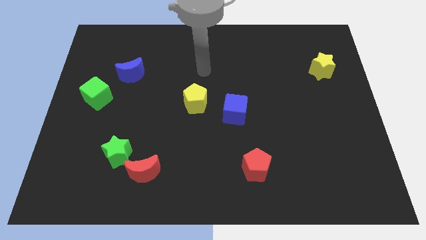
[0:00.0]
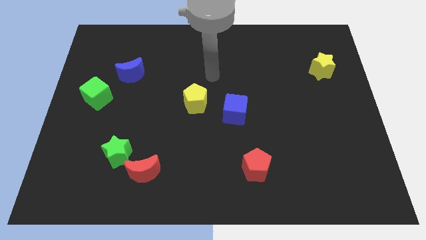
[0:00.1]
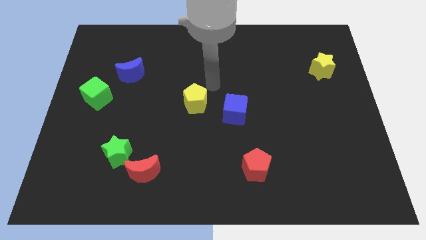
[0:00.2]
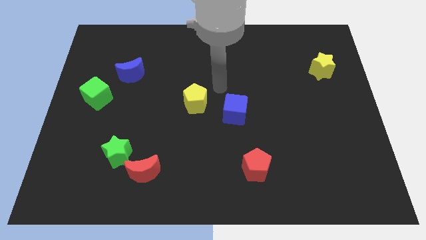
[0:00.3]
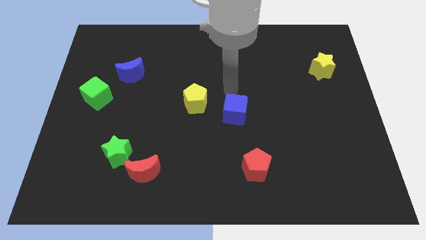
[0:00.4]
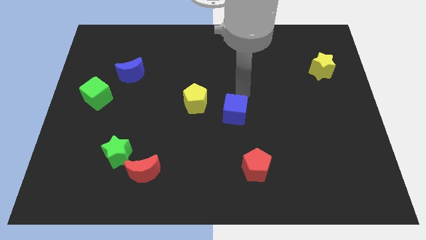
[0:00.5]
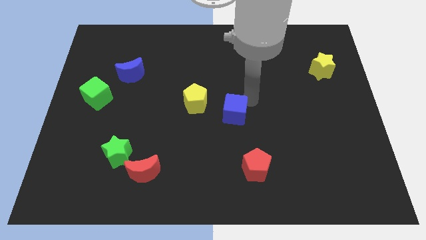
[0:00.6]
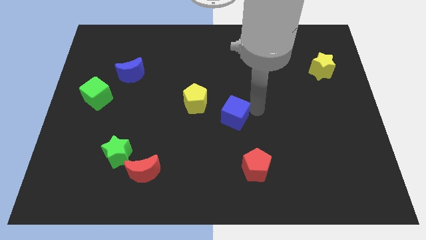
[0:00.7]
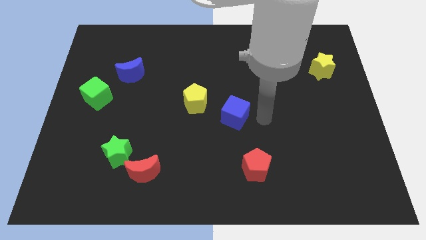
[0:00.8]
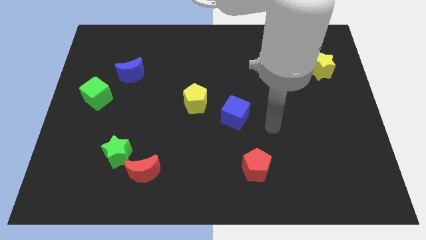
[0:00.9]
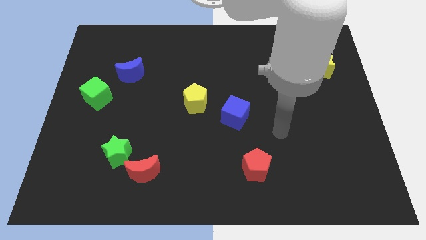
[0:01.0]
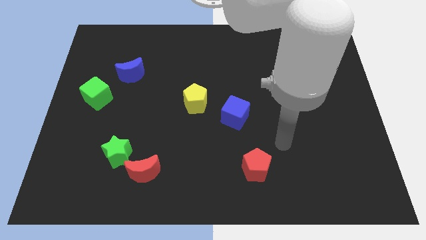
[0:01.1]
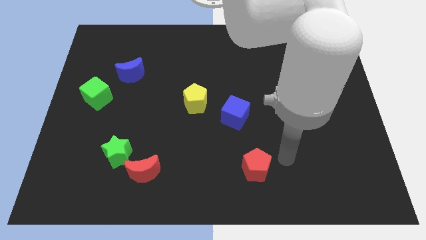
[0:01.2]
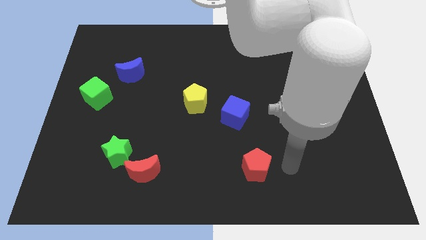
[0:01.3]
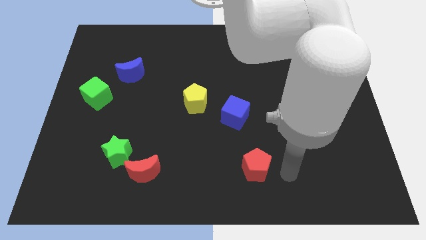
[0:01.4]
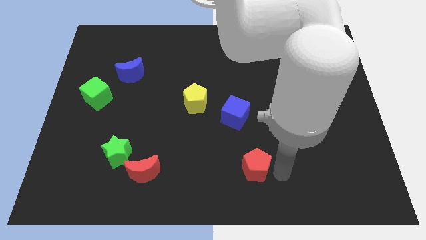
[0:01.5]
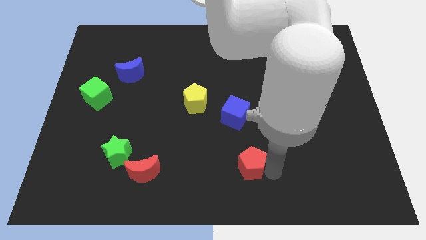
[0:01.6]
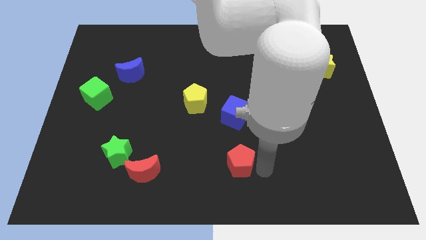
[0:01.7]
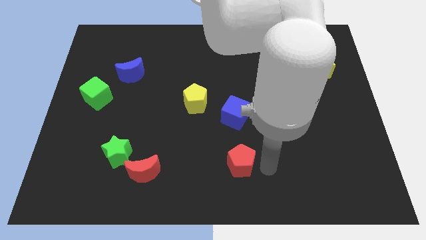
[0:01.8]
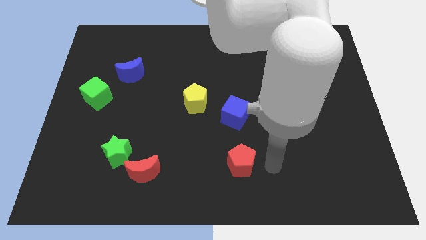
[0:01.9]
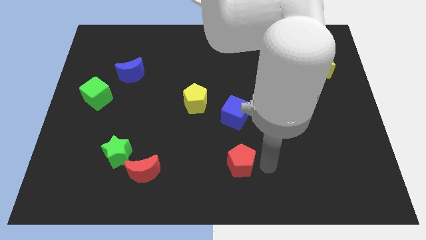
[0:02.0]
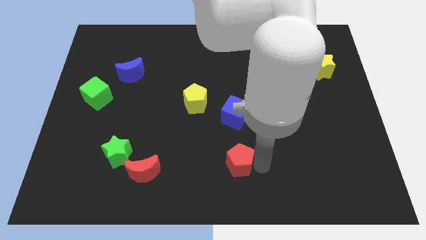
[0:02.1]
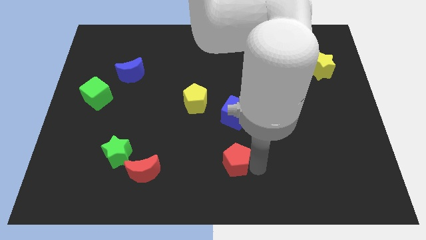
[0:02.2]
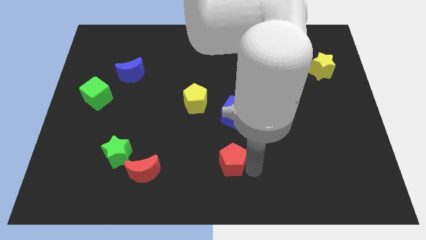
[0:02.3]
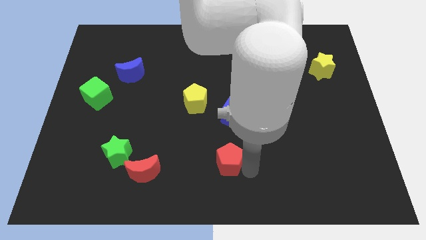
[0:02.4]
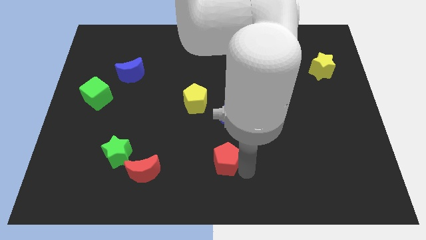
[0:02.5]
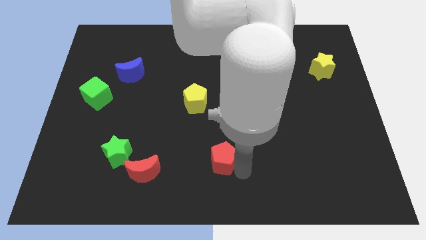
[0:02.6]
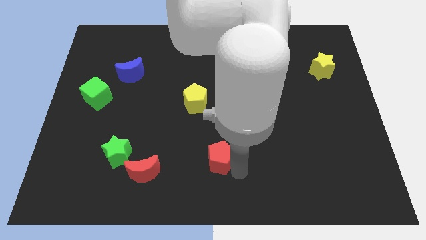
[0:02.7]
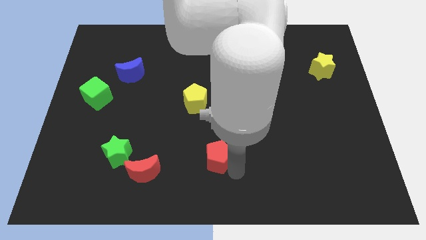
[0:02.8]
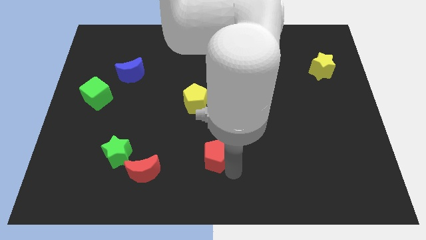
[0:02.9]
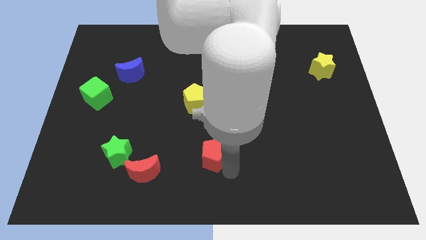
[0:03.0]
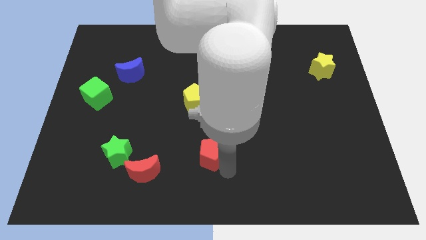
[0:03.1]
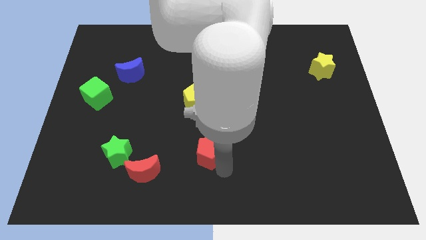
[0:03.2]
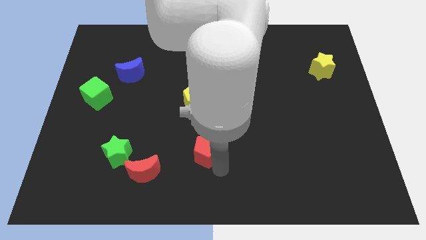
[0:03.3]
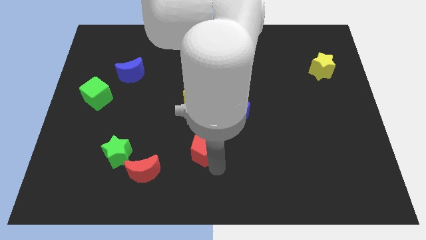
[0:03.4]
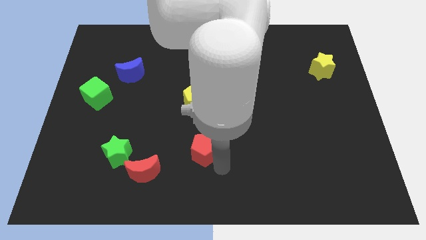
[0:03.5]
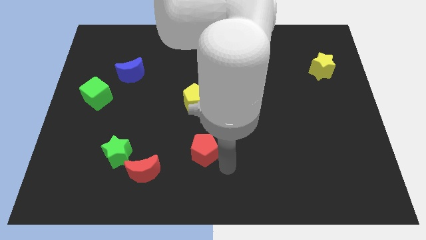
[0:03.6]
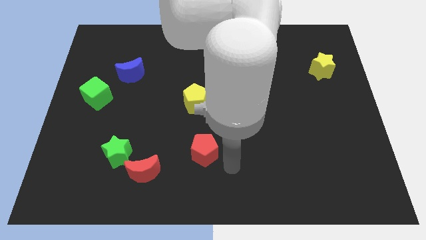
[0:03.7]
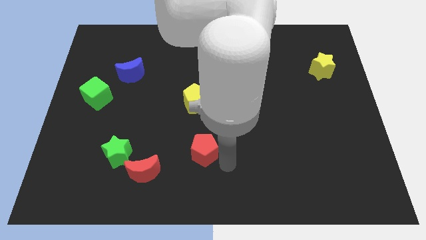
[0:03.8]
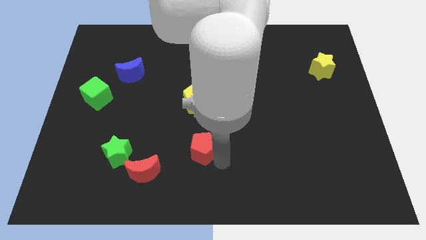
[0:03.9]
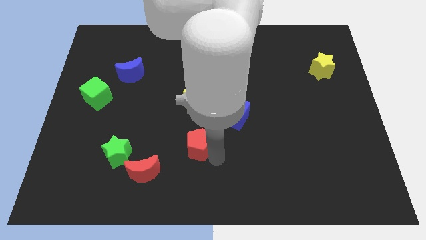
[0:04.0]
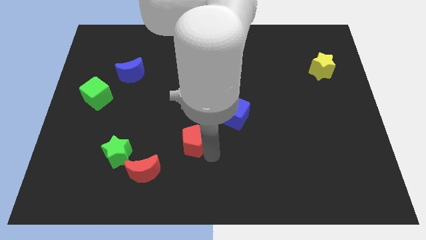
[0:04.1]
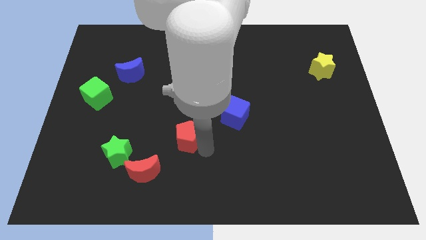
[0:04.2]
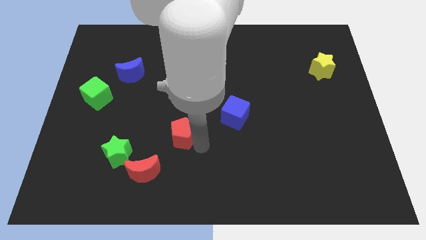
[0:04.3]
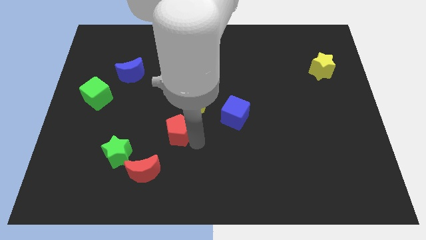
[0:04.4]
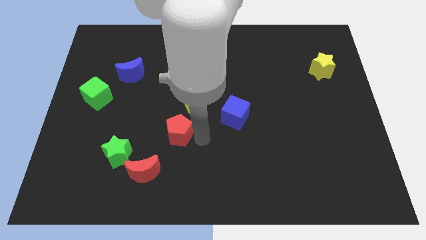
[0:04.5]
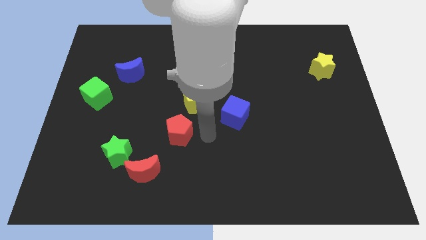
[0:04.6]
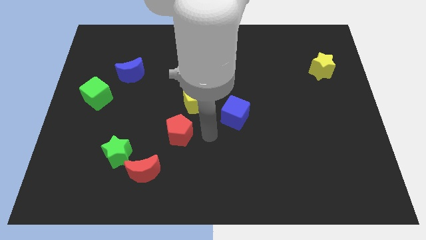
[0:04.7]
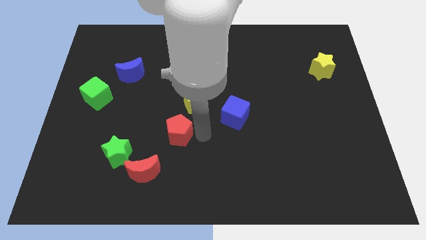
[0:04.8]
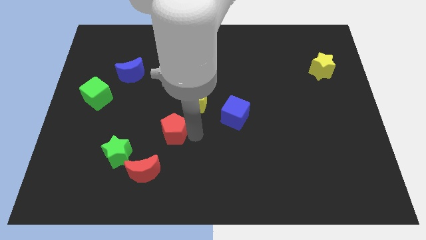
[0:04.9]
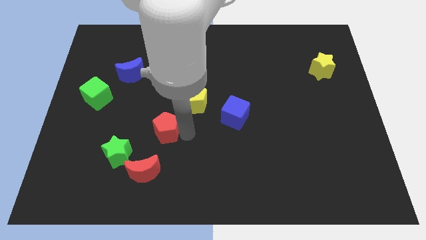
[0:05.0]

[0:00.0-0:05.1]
slide the red pentagon to the top right of the green star
